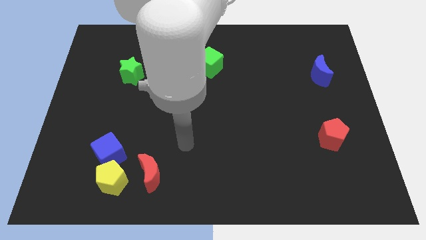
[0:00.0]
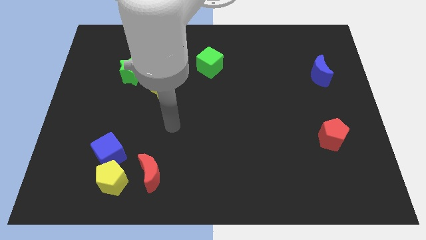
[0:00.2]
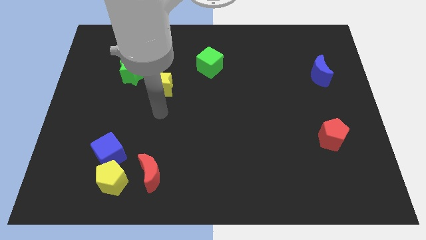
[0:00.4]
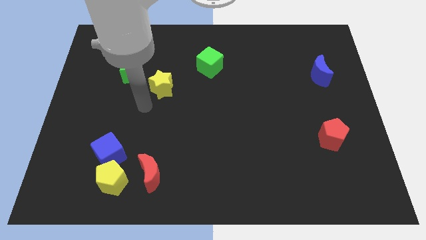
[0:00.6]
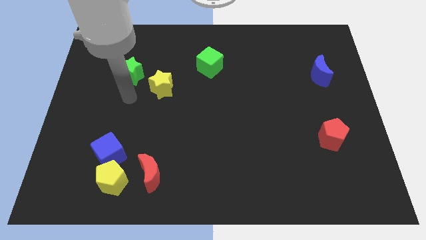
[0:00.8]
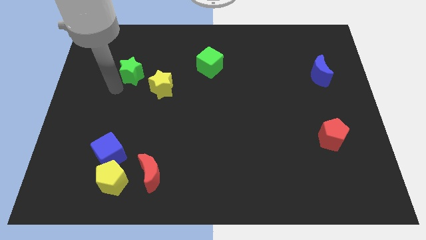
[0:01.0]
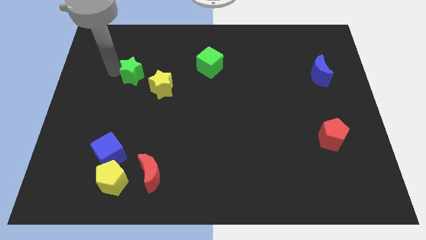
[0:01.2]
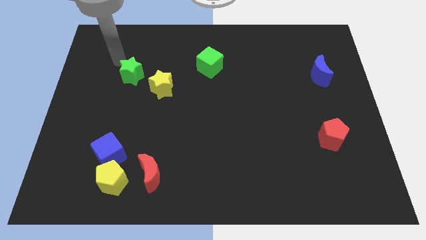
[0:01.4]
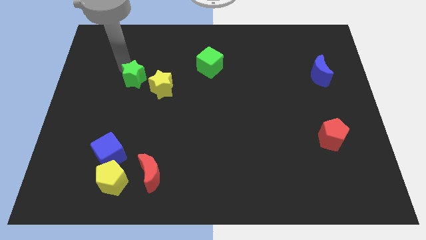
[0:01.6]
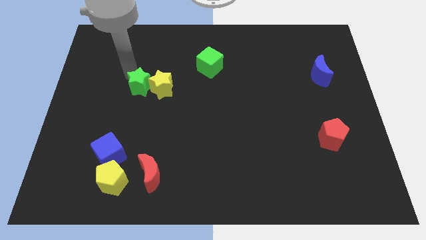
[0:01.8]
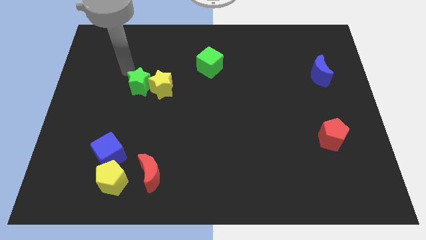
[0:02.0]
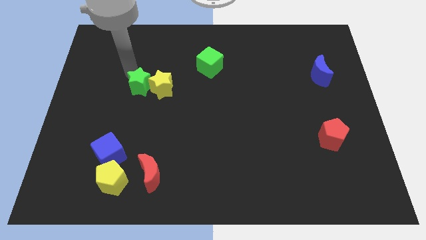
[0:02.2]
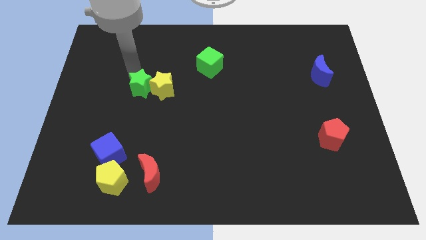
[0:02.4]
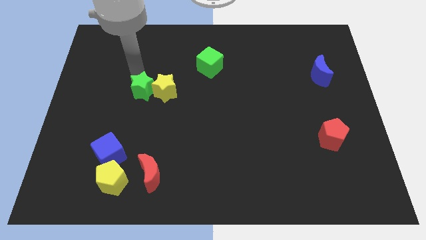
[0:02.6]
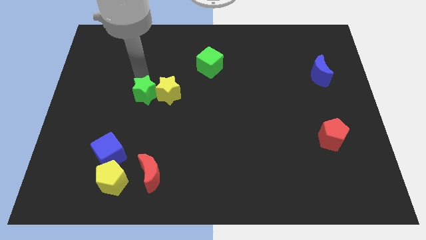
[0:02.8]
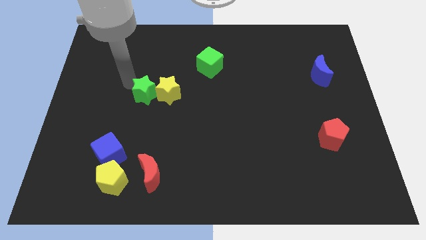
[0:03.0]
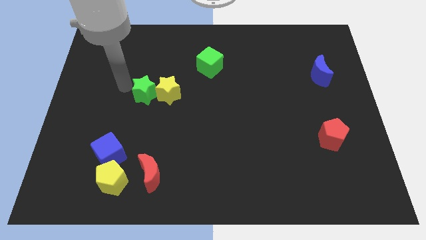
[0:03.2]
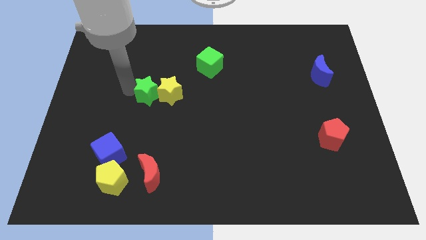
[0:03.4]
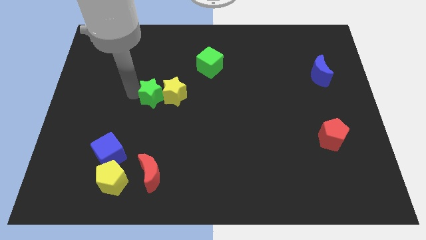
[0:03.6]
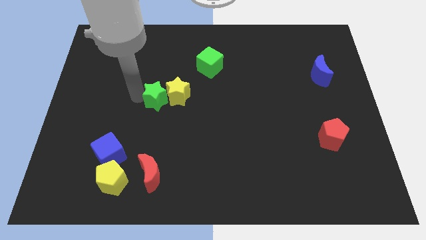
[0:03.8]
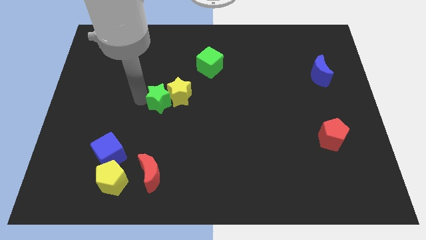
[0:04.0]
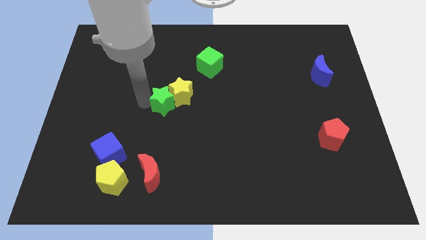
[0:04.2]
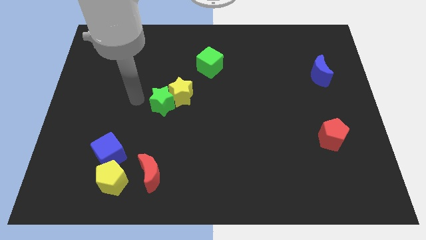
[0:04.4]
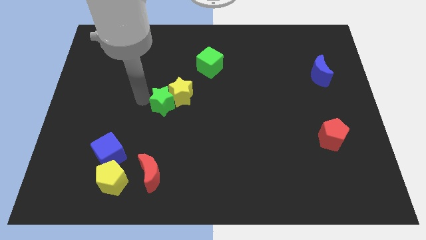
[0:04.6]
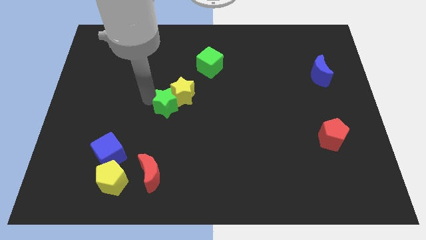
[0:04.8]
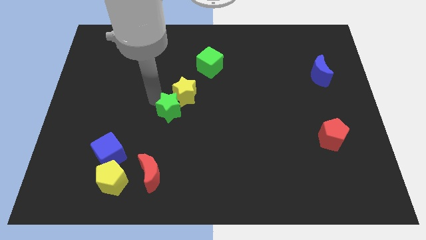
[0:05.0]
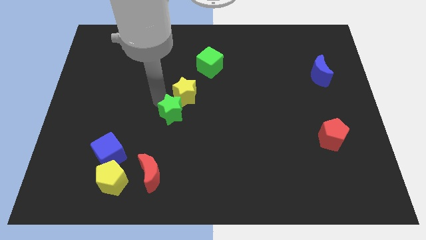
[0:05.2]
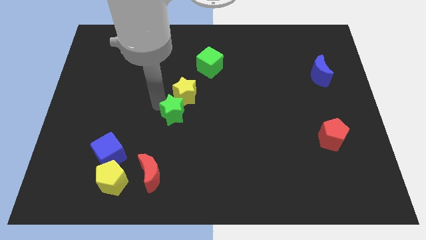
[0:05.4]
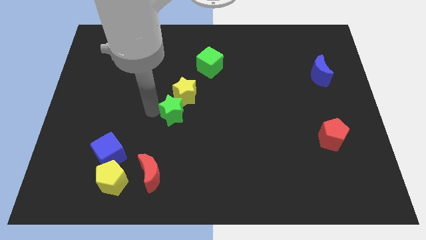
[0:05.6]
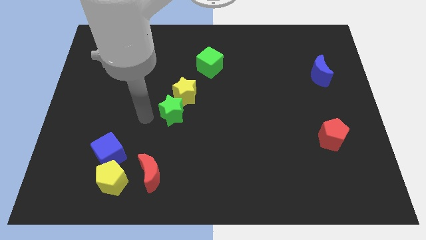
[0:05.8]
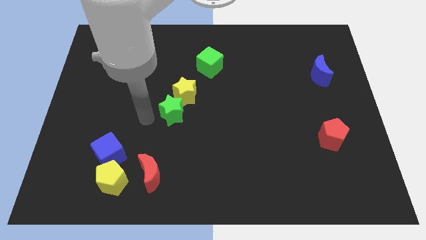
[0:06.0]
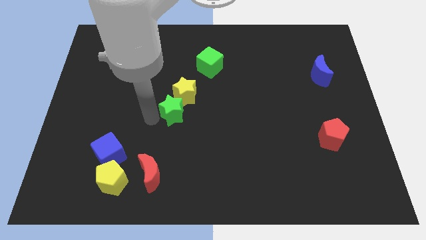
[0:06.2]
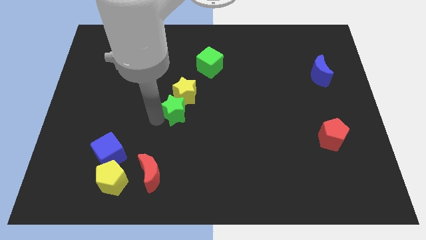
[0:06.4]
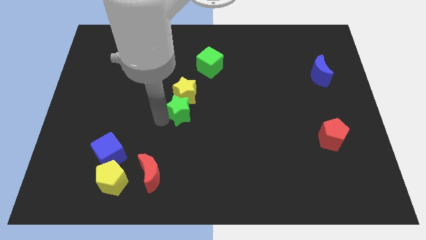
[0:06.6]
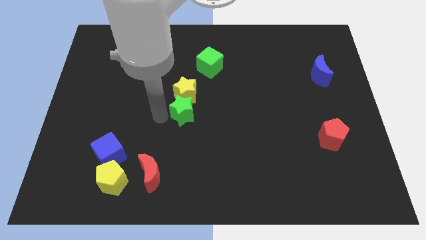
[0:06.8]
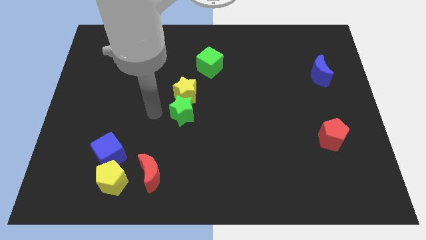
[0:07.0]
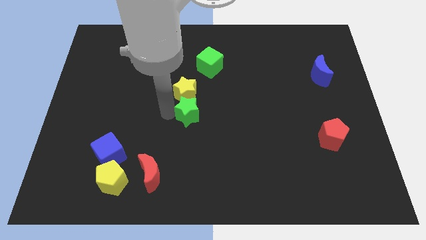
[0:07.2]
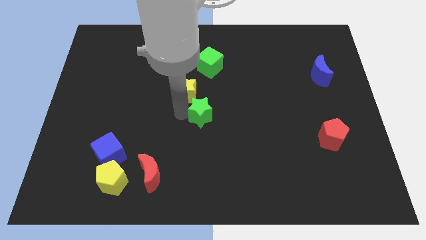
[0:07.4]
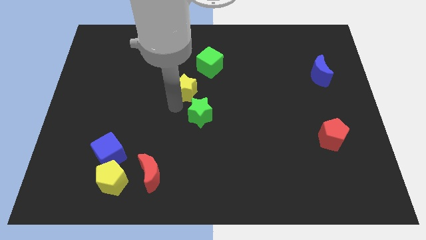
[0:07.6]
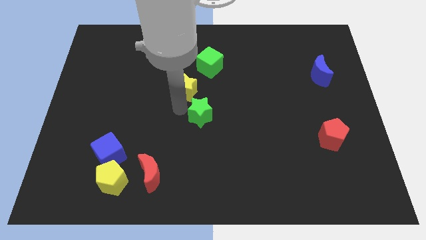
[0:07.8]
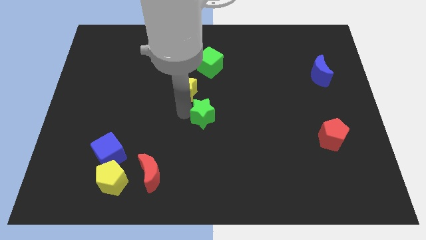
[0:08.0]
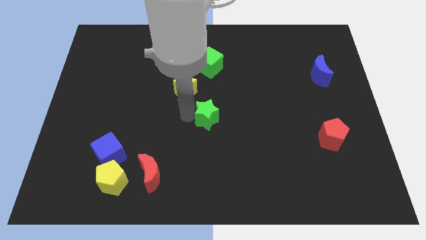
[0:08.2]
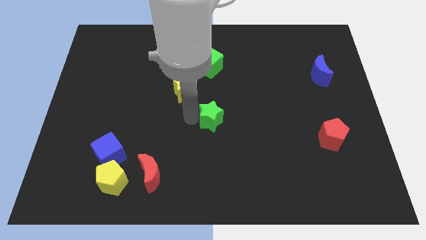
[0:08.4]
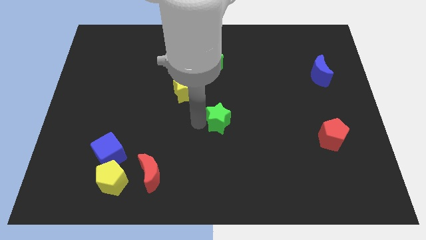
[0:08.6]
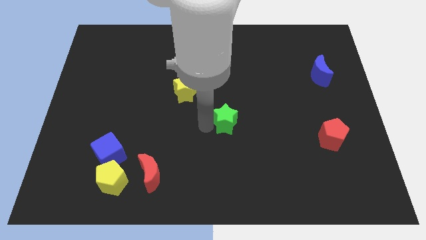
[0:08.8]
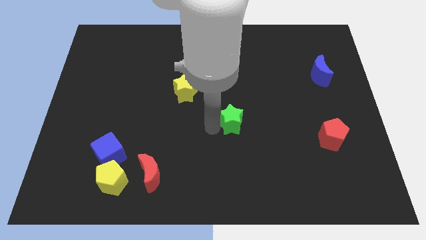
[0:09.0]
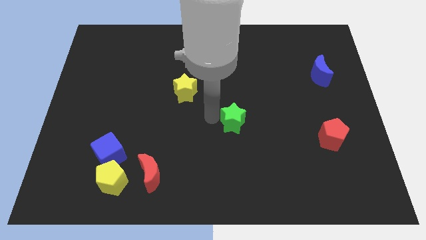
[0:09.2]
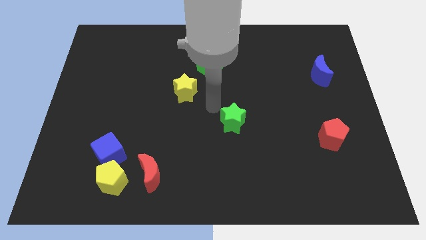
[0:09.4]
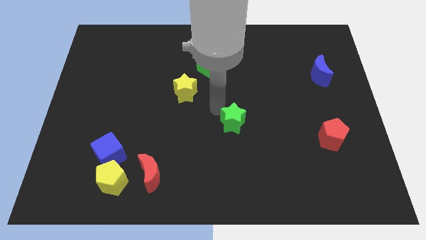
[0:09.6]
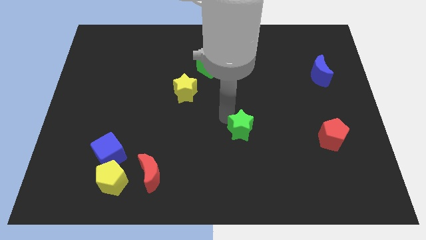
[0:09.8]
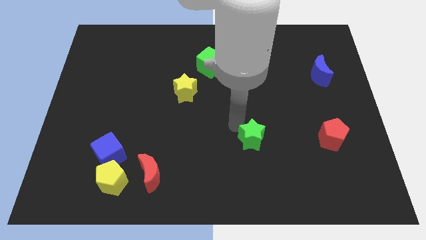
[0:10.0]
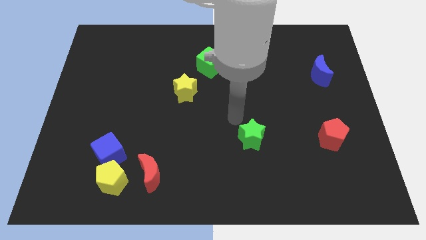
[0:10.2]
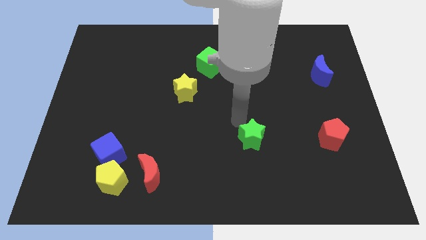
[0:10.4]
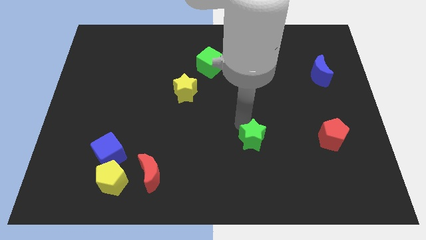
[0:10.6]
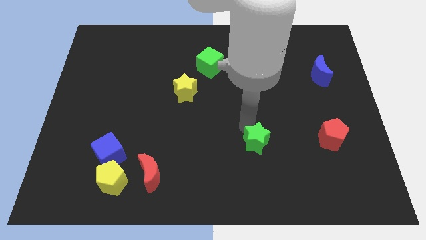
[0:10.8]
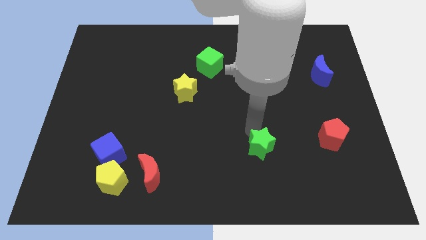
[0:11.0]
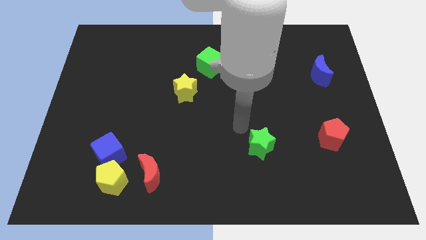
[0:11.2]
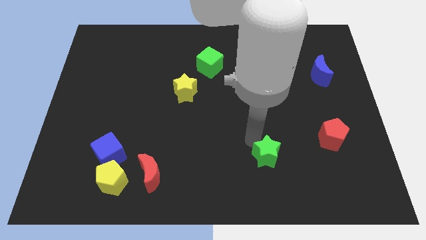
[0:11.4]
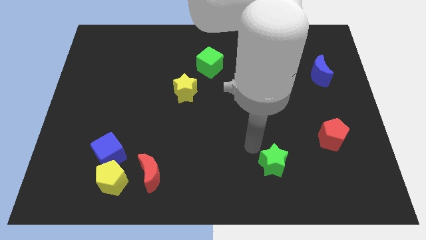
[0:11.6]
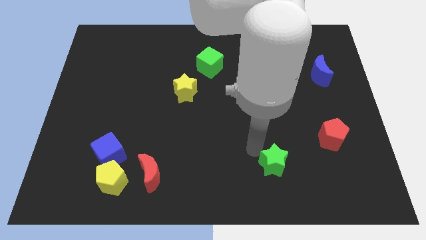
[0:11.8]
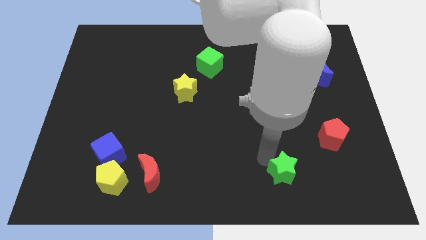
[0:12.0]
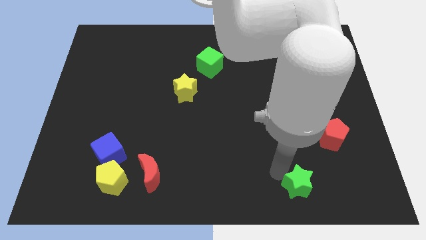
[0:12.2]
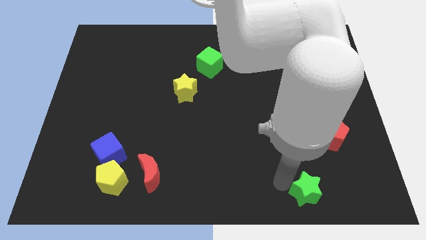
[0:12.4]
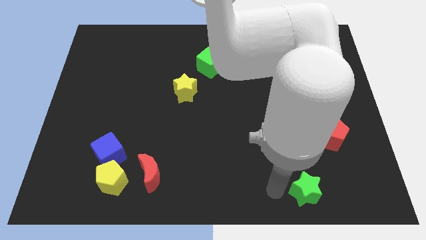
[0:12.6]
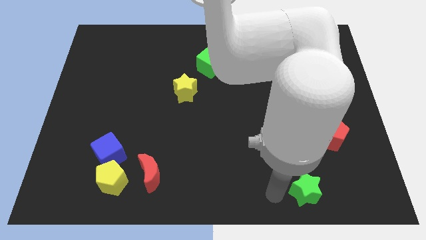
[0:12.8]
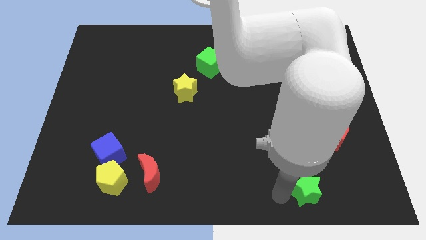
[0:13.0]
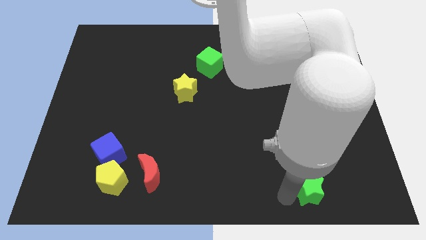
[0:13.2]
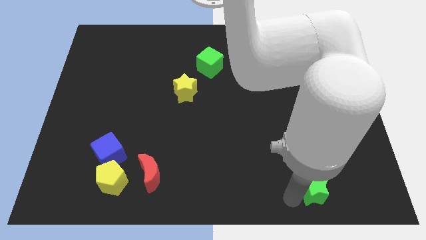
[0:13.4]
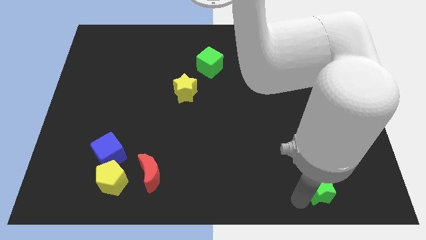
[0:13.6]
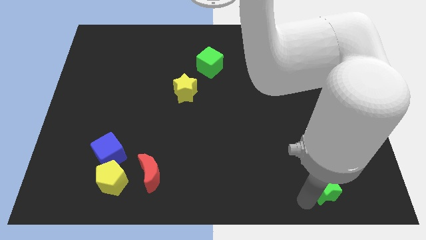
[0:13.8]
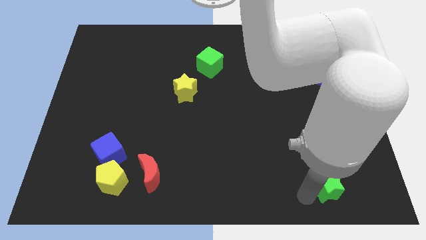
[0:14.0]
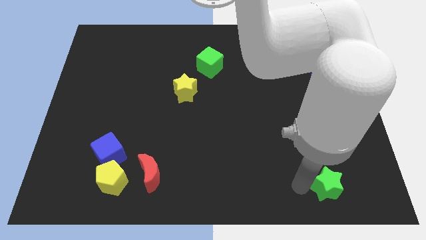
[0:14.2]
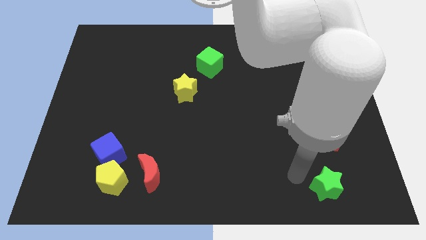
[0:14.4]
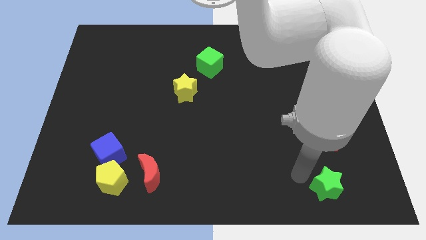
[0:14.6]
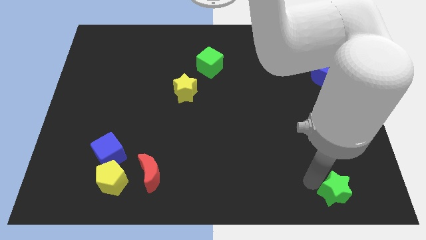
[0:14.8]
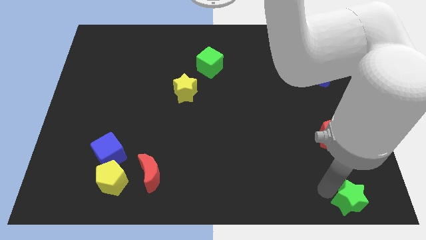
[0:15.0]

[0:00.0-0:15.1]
slide the green star to the bottom right corner
